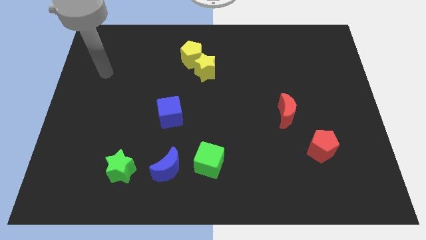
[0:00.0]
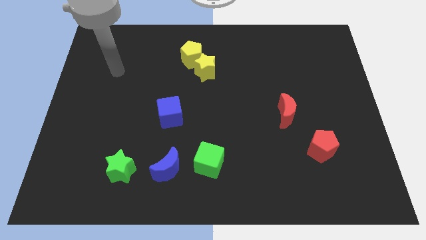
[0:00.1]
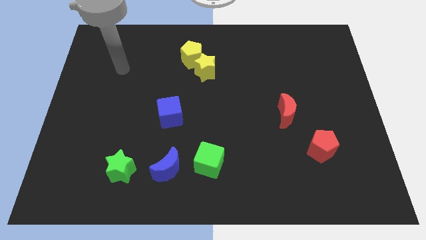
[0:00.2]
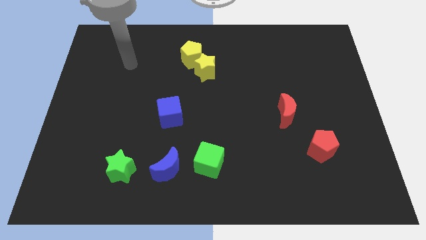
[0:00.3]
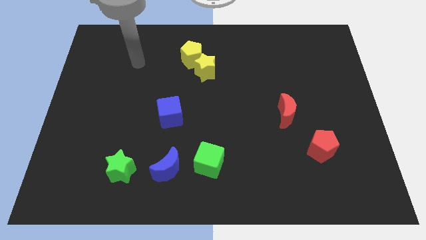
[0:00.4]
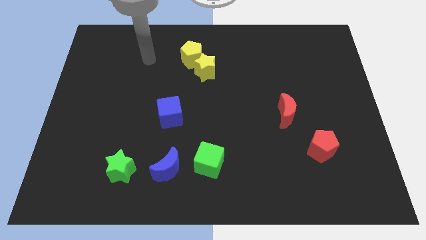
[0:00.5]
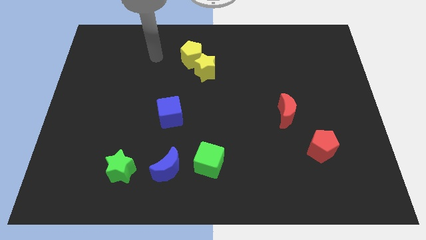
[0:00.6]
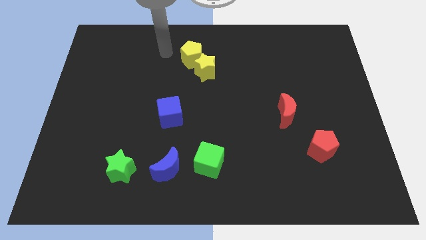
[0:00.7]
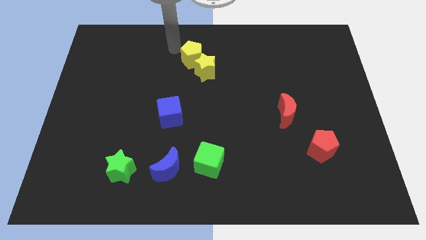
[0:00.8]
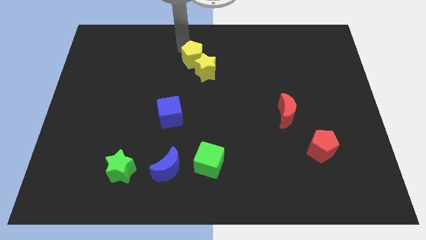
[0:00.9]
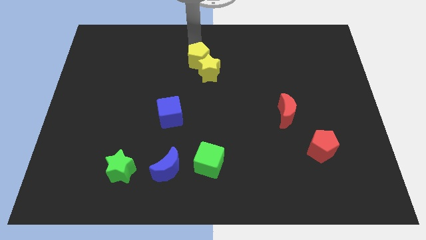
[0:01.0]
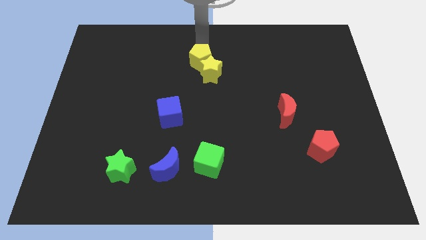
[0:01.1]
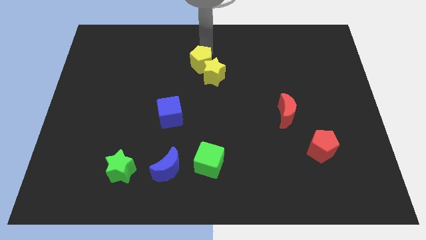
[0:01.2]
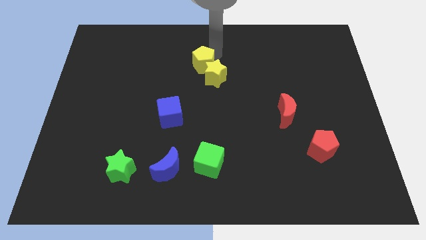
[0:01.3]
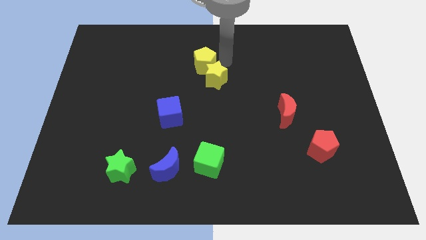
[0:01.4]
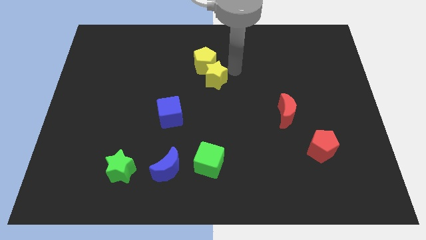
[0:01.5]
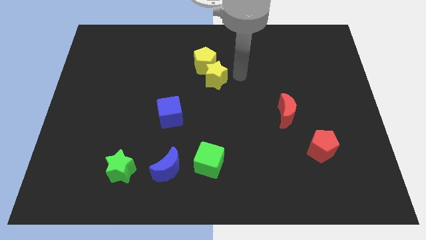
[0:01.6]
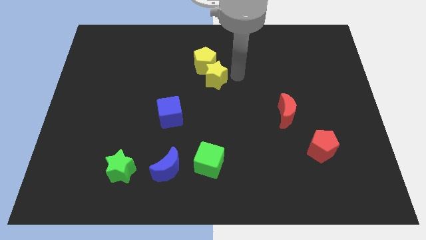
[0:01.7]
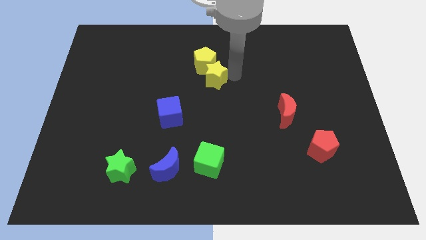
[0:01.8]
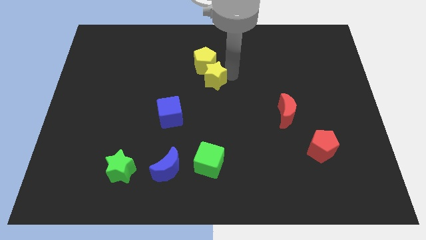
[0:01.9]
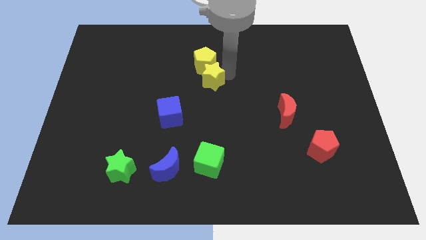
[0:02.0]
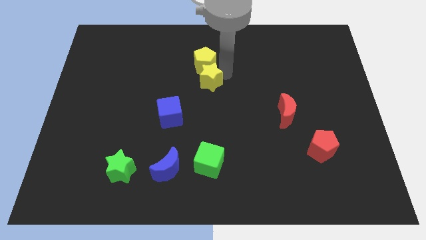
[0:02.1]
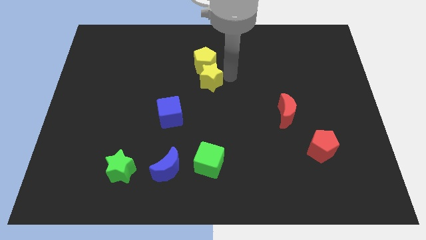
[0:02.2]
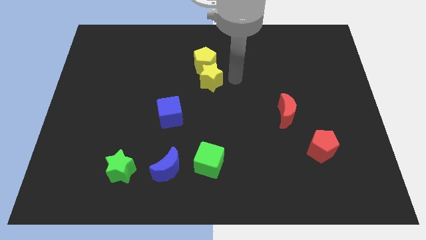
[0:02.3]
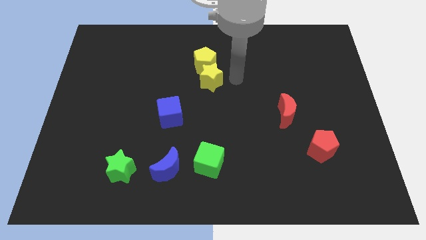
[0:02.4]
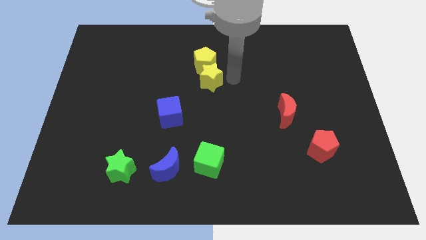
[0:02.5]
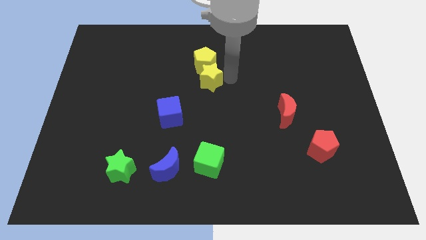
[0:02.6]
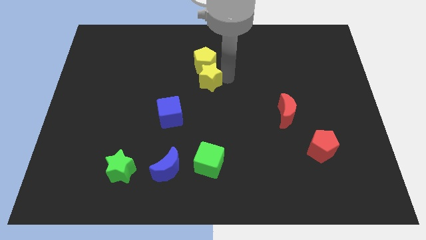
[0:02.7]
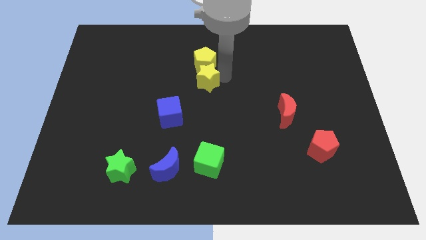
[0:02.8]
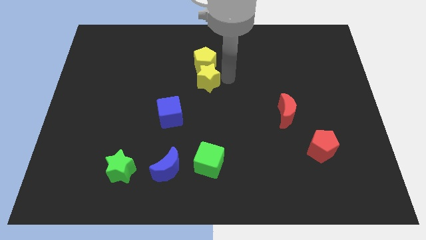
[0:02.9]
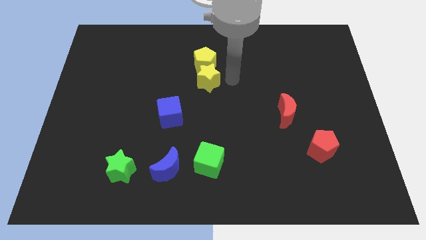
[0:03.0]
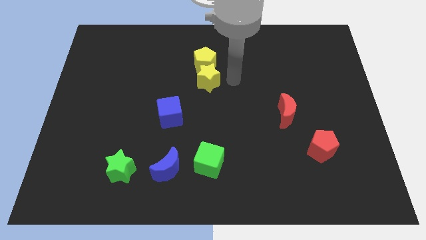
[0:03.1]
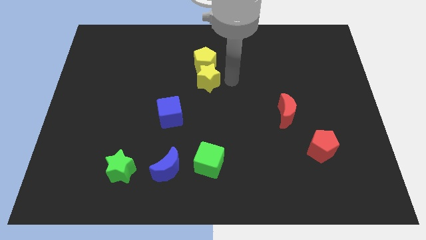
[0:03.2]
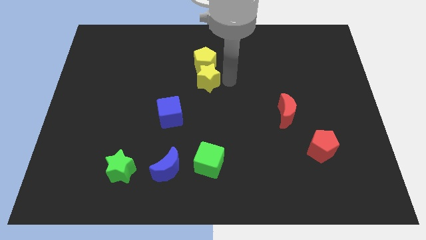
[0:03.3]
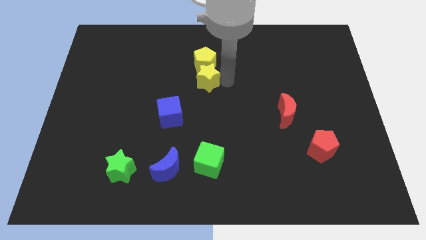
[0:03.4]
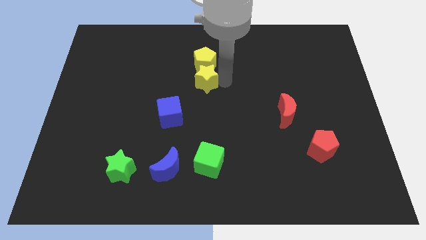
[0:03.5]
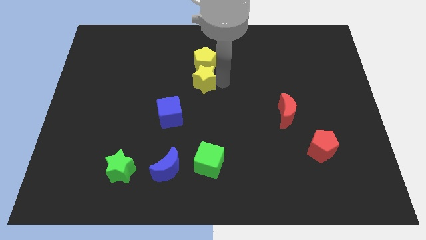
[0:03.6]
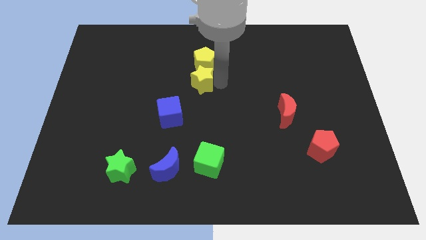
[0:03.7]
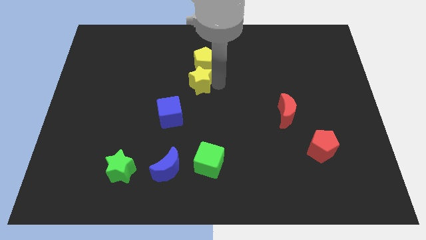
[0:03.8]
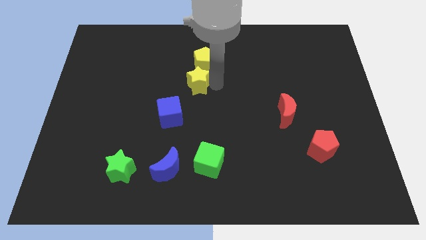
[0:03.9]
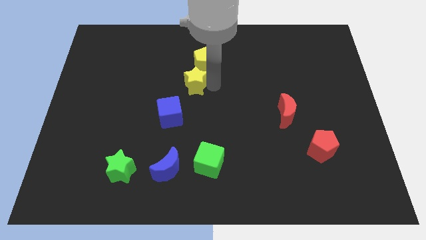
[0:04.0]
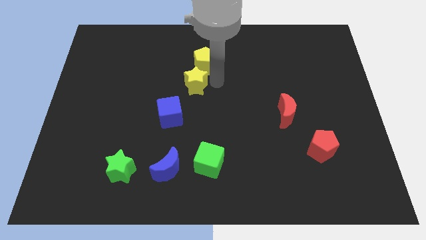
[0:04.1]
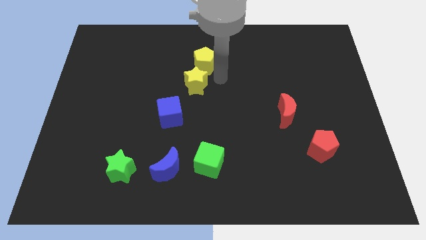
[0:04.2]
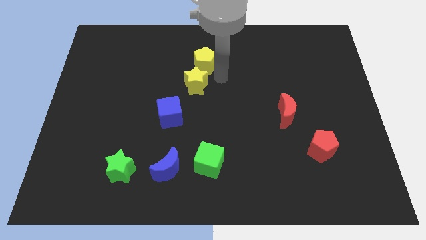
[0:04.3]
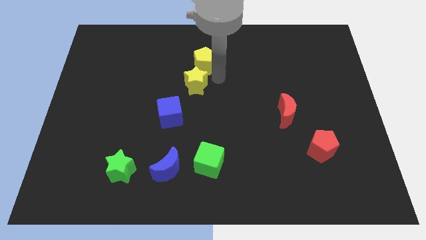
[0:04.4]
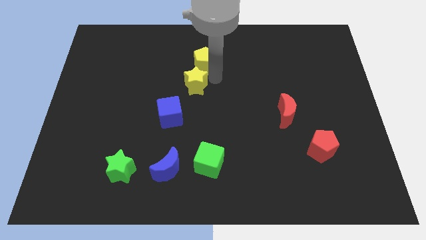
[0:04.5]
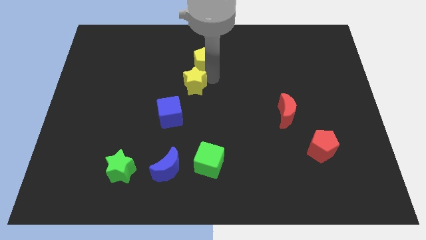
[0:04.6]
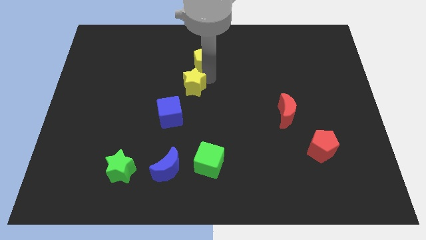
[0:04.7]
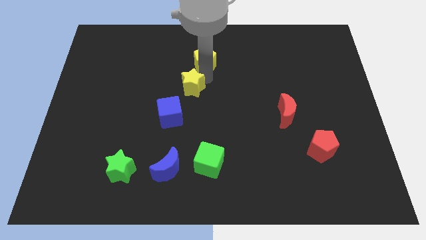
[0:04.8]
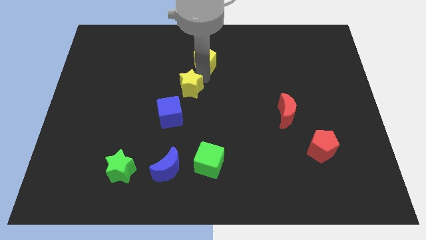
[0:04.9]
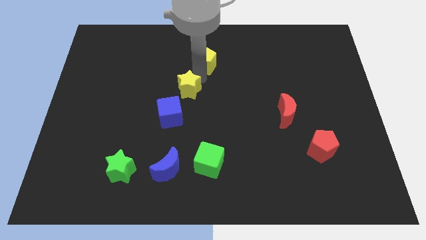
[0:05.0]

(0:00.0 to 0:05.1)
push the yellow star down and to the left diagonally a little

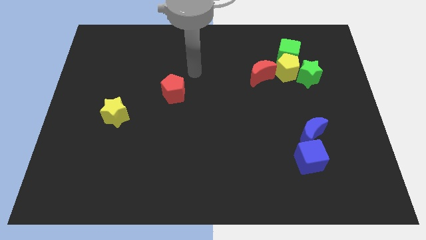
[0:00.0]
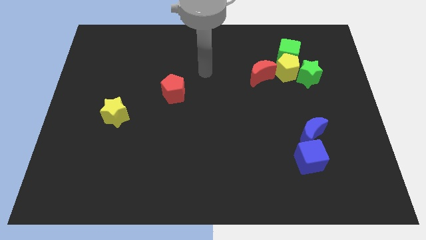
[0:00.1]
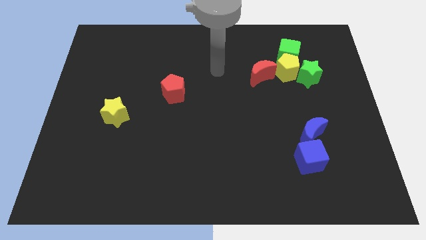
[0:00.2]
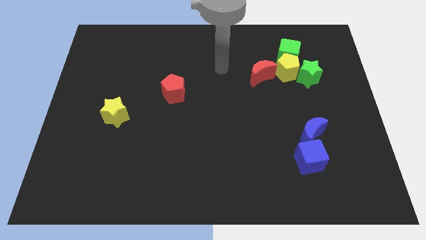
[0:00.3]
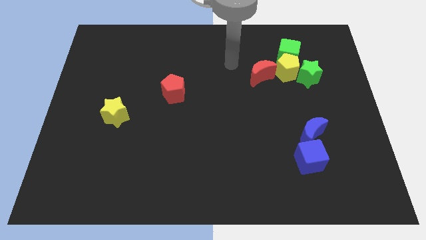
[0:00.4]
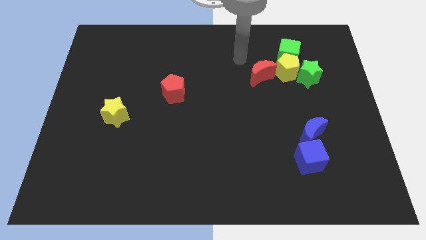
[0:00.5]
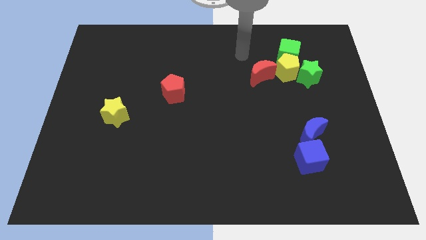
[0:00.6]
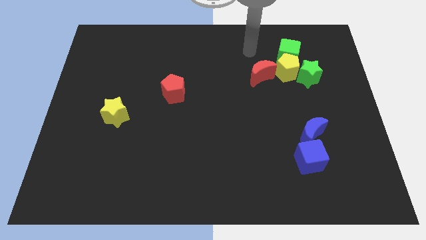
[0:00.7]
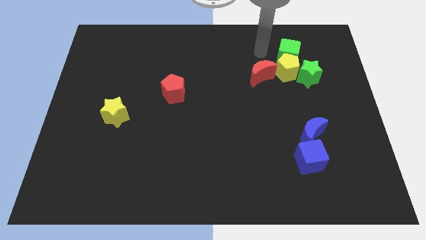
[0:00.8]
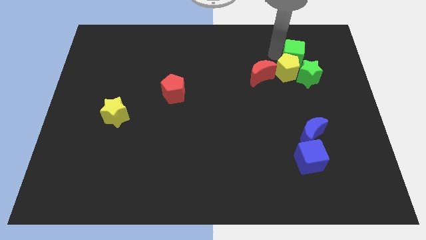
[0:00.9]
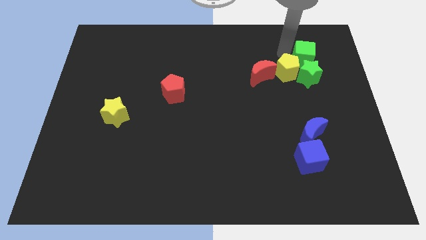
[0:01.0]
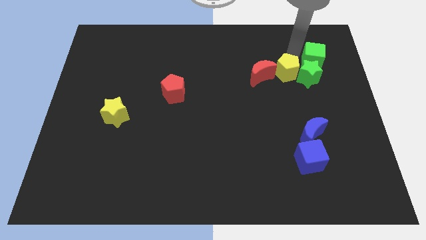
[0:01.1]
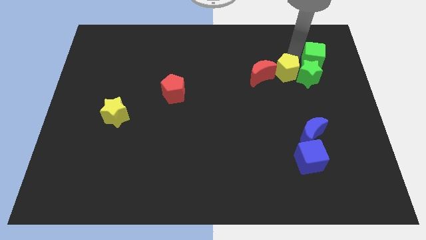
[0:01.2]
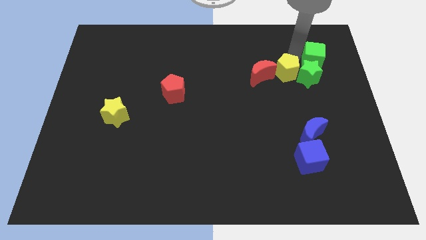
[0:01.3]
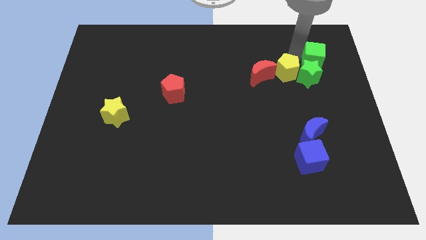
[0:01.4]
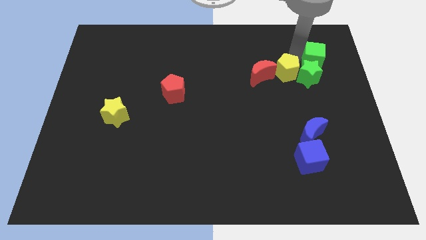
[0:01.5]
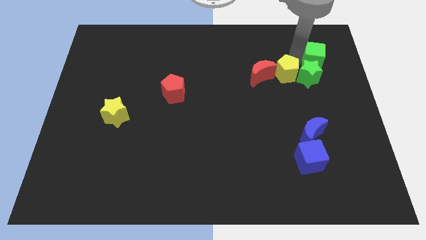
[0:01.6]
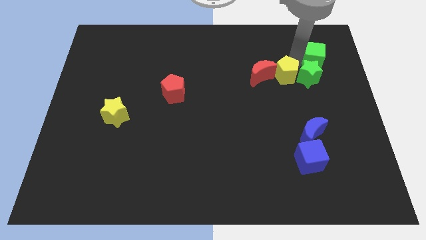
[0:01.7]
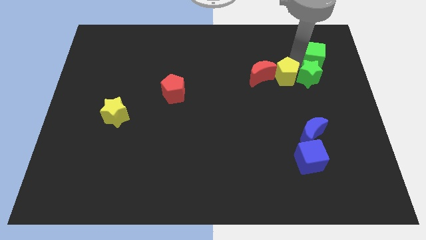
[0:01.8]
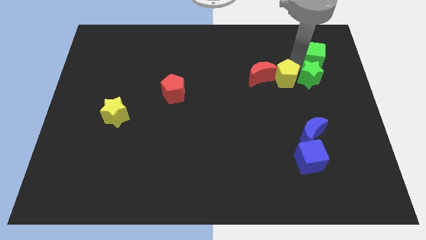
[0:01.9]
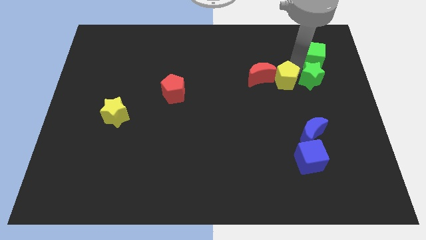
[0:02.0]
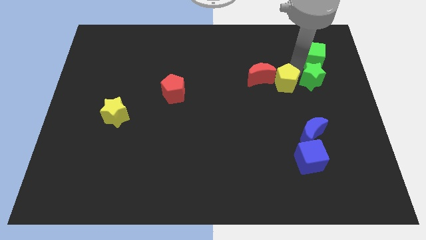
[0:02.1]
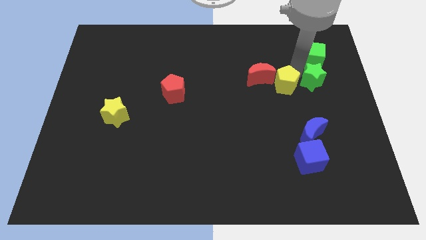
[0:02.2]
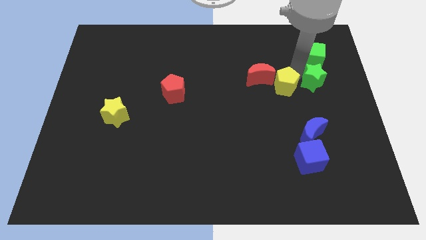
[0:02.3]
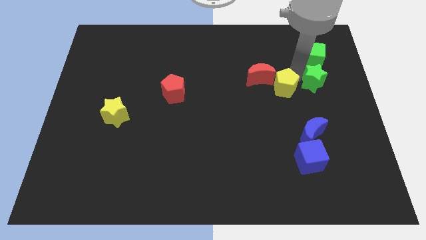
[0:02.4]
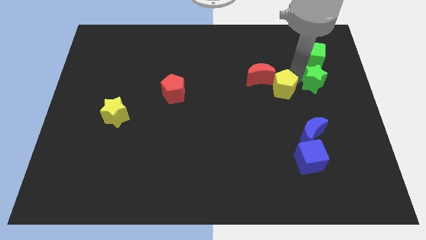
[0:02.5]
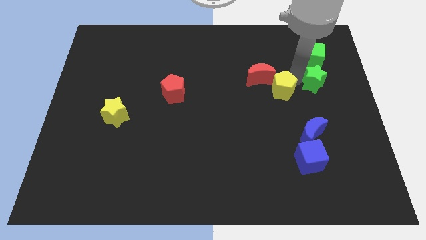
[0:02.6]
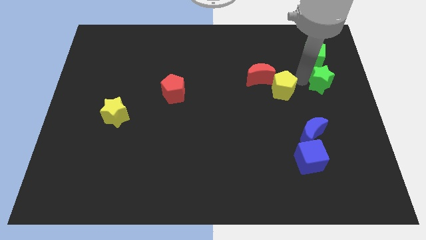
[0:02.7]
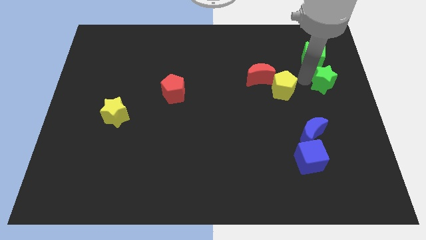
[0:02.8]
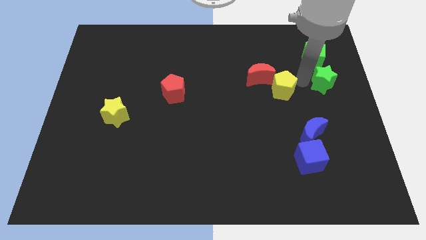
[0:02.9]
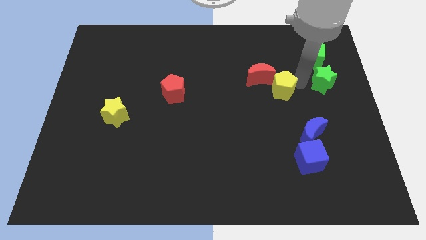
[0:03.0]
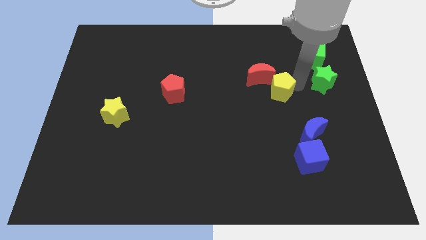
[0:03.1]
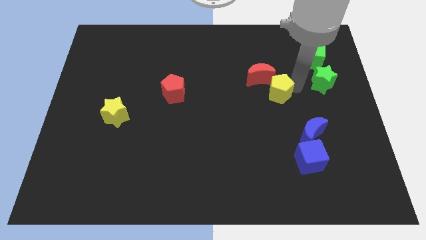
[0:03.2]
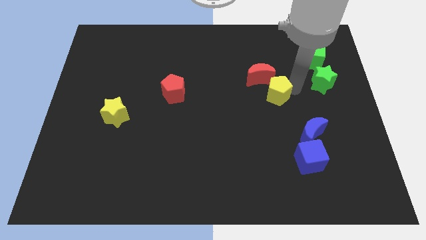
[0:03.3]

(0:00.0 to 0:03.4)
move the yellow pentagon a little bit diagonally down and to the left
